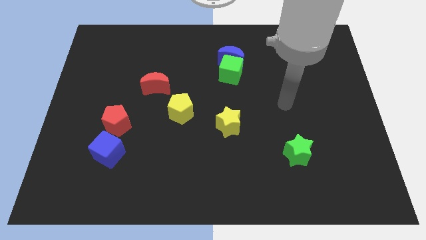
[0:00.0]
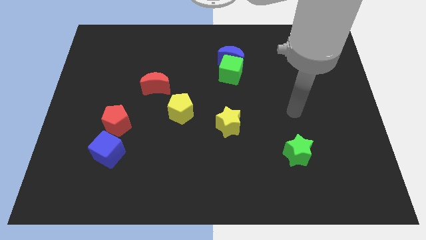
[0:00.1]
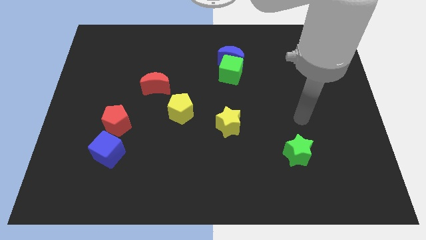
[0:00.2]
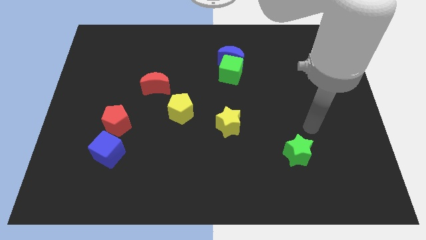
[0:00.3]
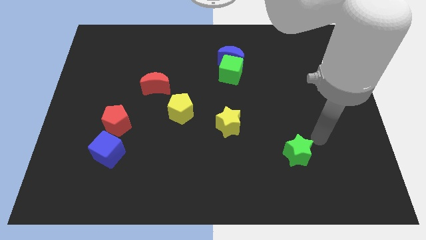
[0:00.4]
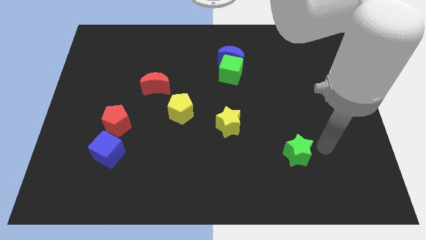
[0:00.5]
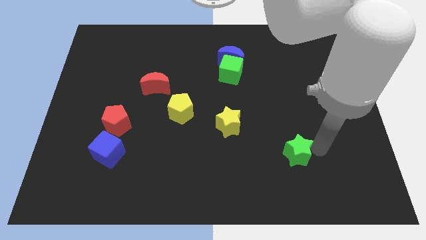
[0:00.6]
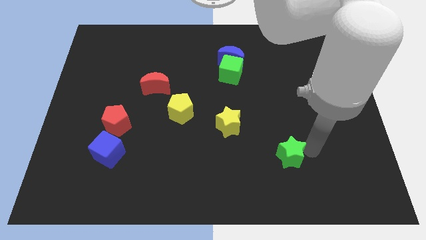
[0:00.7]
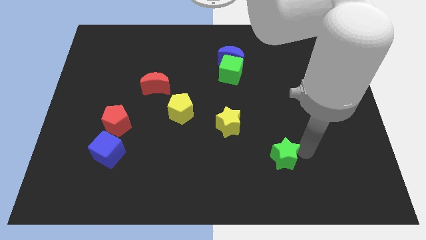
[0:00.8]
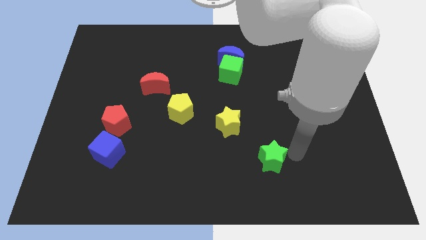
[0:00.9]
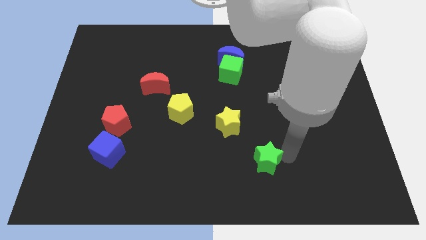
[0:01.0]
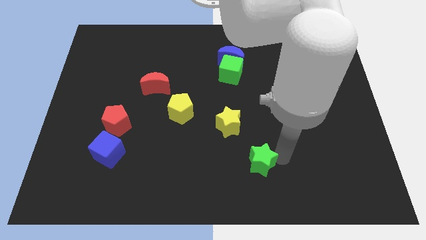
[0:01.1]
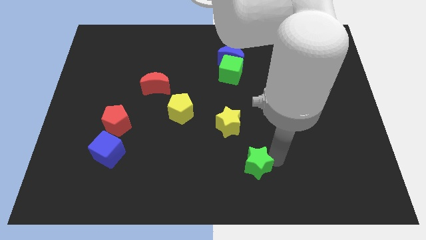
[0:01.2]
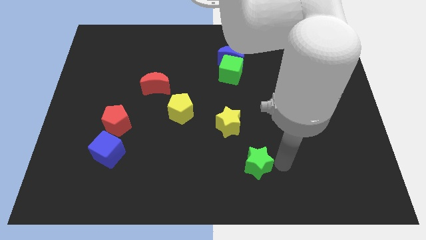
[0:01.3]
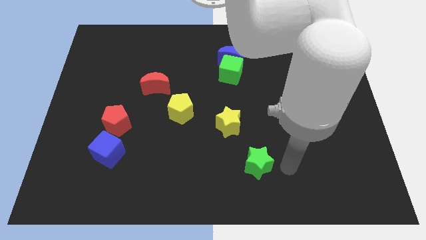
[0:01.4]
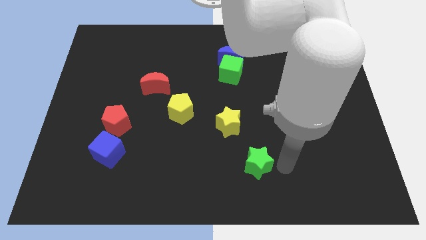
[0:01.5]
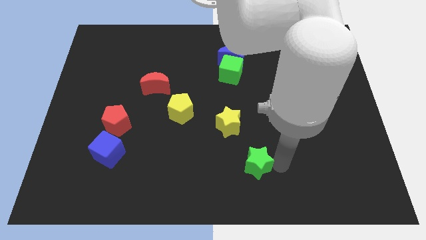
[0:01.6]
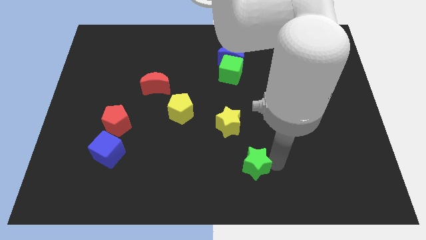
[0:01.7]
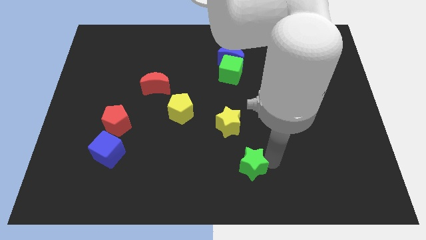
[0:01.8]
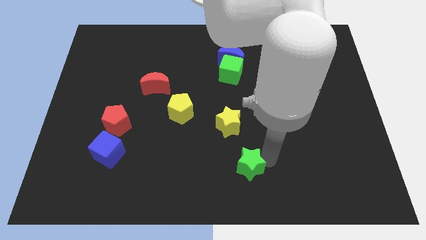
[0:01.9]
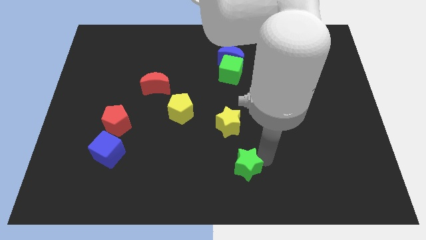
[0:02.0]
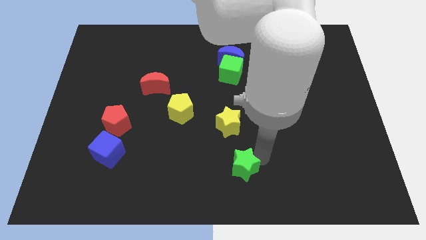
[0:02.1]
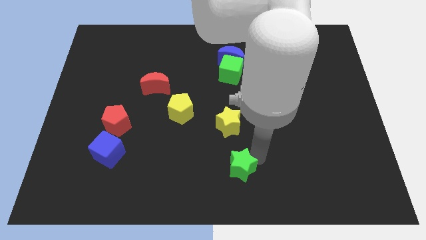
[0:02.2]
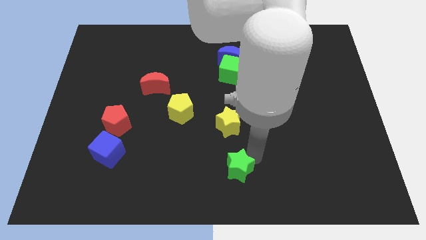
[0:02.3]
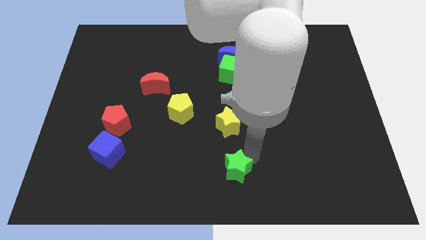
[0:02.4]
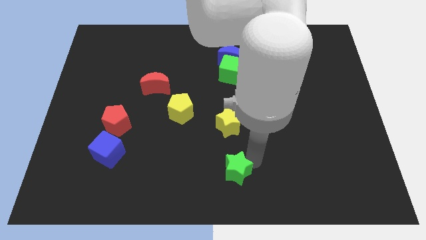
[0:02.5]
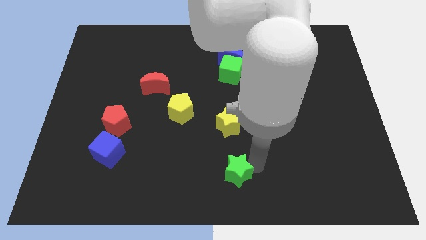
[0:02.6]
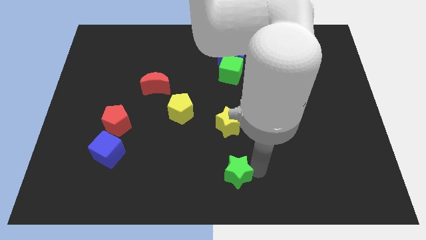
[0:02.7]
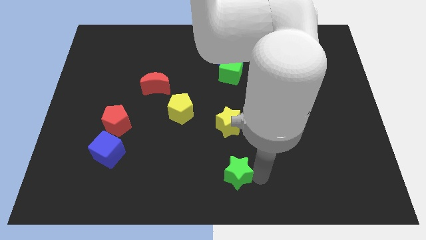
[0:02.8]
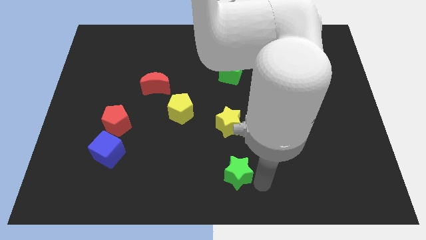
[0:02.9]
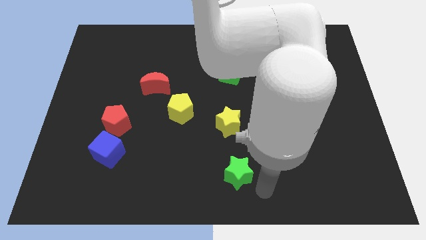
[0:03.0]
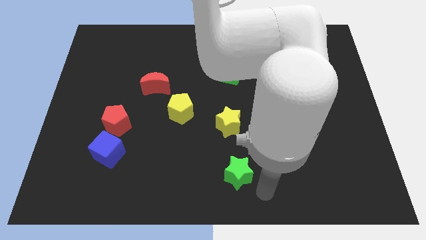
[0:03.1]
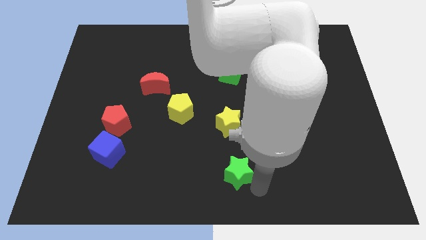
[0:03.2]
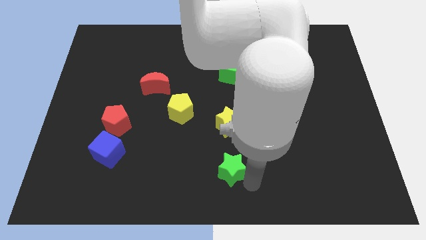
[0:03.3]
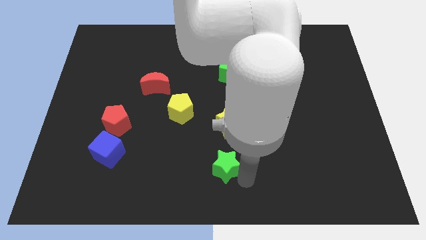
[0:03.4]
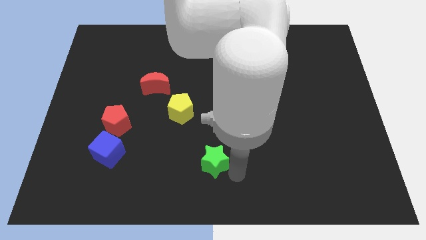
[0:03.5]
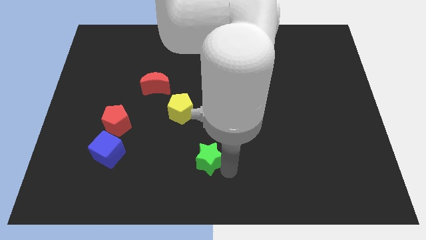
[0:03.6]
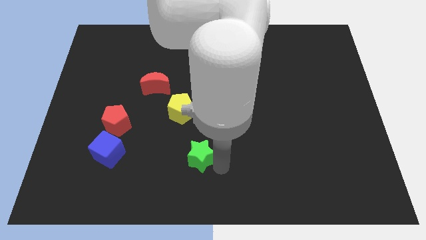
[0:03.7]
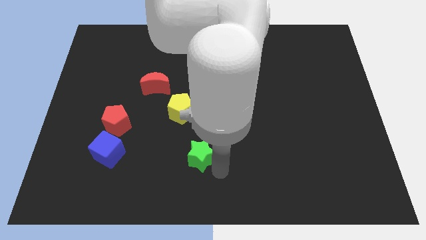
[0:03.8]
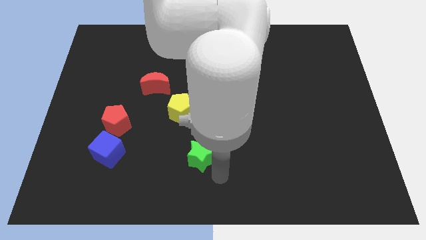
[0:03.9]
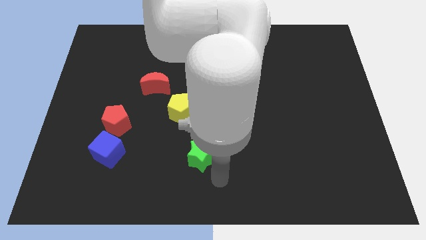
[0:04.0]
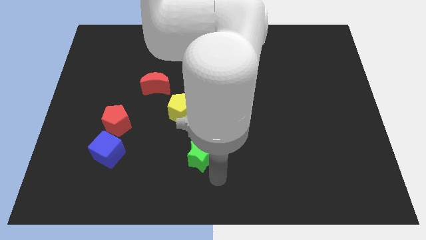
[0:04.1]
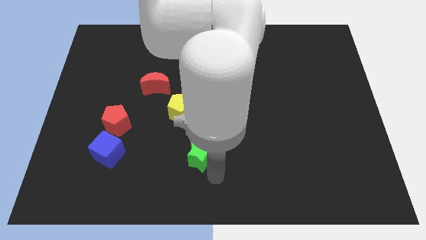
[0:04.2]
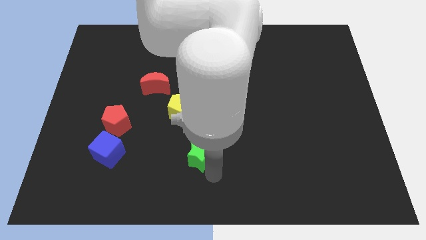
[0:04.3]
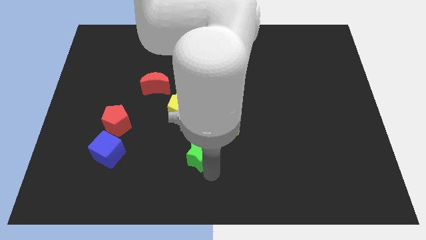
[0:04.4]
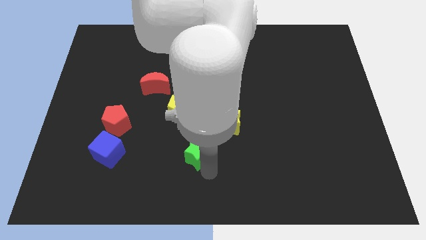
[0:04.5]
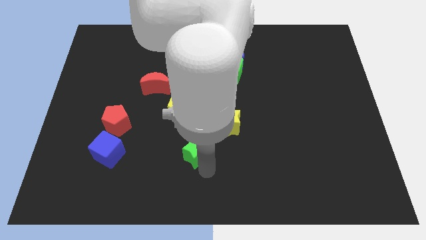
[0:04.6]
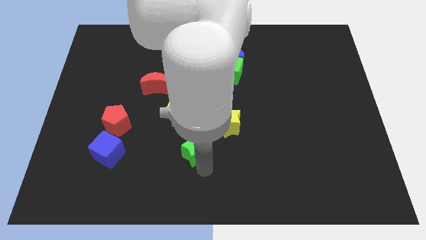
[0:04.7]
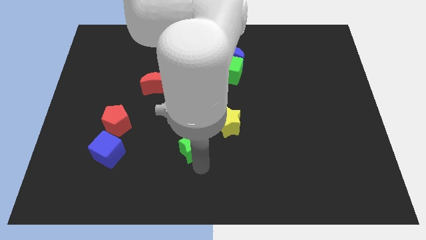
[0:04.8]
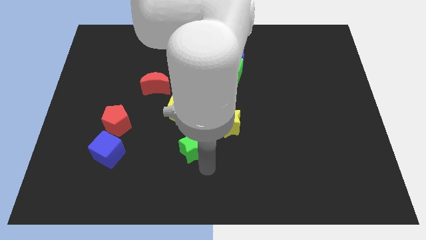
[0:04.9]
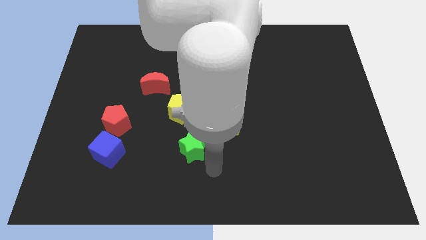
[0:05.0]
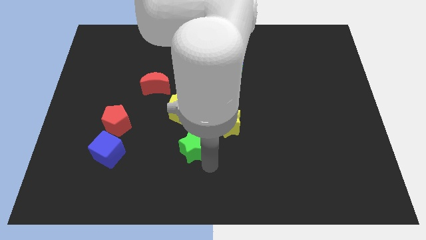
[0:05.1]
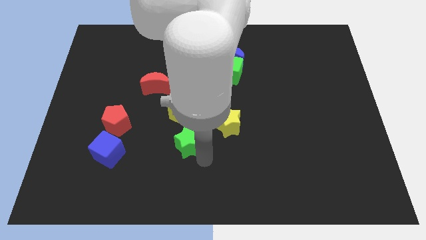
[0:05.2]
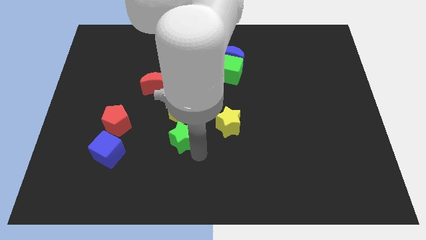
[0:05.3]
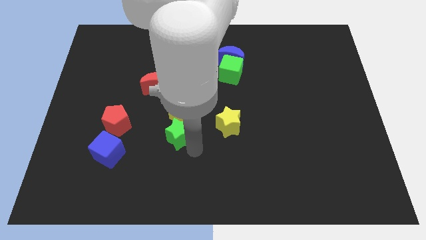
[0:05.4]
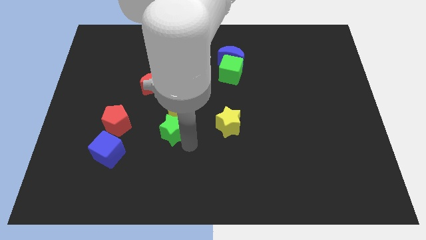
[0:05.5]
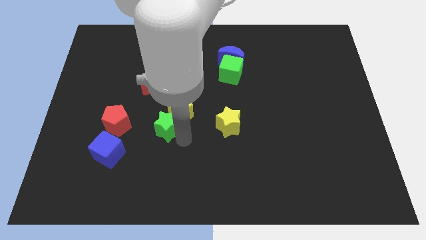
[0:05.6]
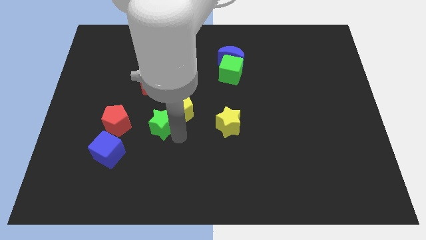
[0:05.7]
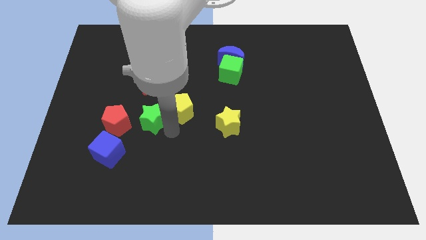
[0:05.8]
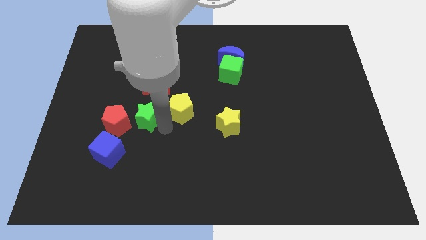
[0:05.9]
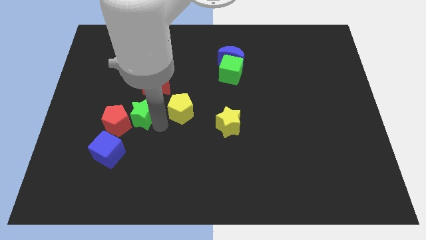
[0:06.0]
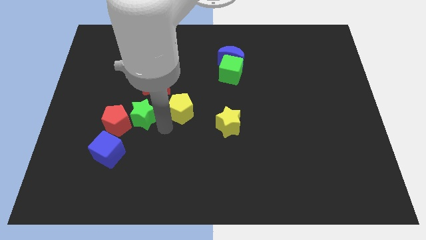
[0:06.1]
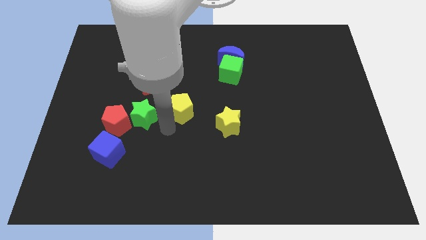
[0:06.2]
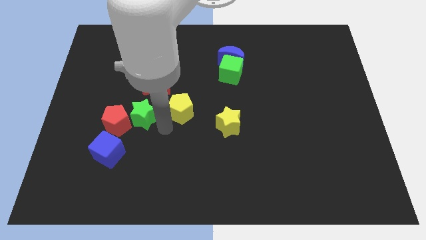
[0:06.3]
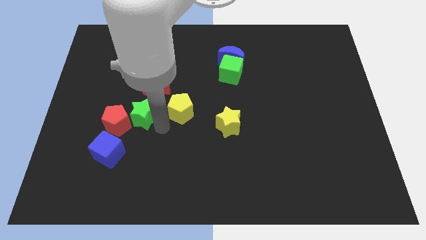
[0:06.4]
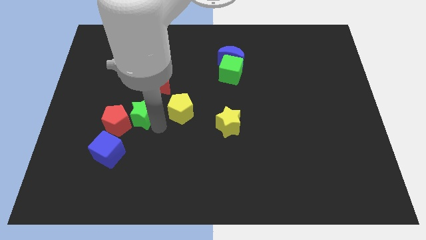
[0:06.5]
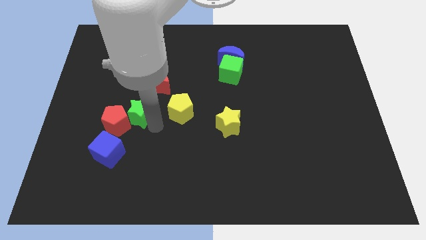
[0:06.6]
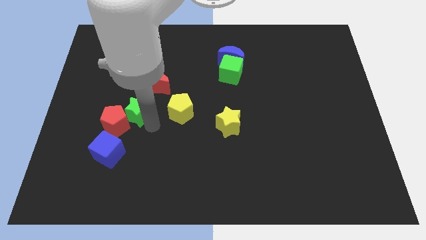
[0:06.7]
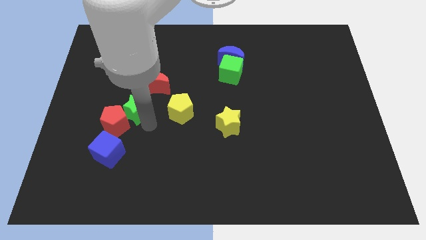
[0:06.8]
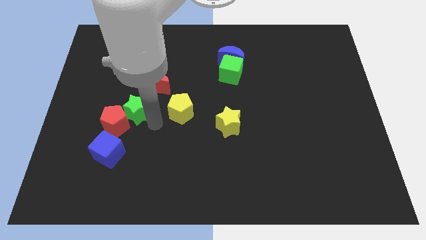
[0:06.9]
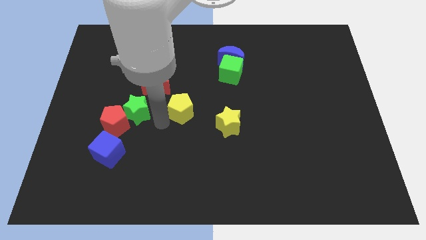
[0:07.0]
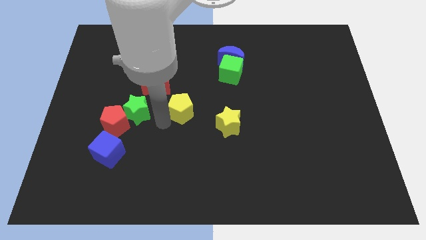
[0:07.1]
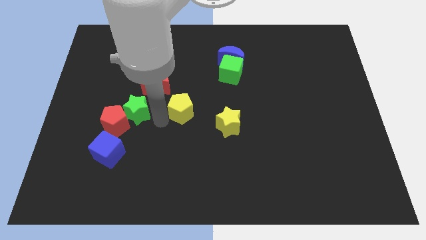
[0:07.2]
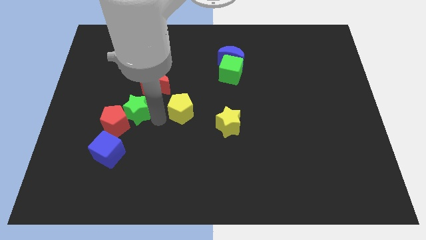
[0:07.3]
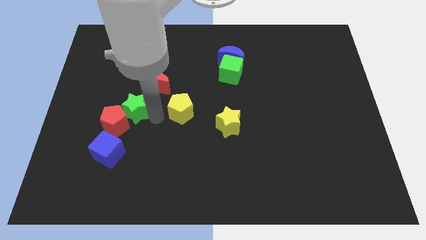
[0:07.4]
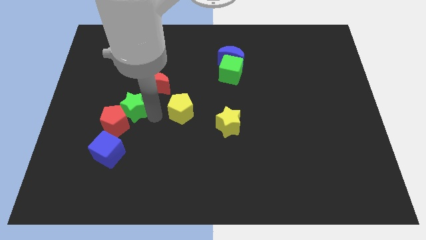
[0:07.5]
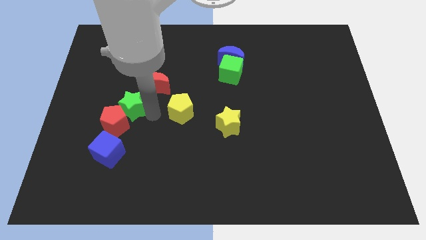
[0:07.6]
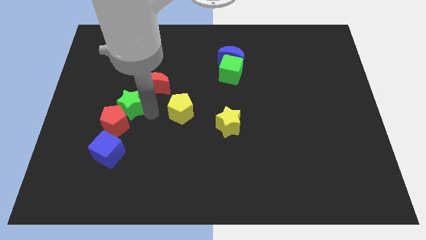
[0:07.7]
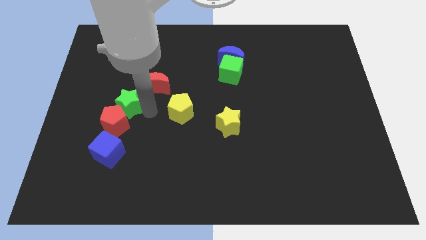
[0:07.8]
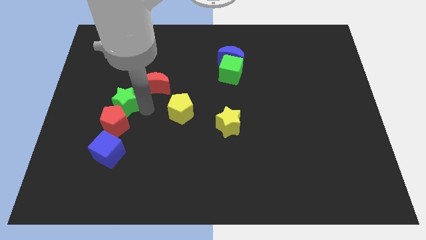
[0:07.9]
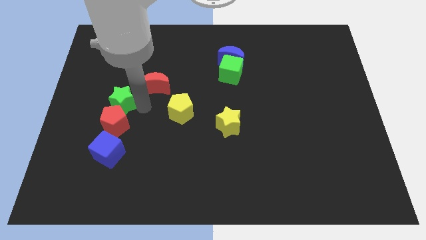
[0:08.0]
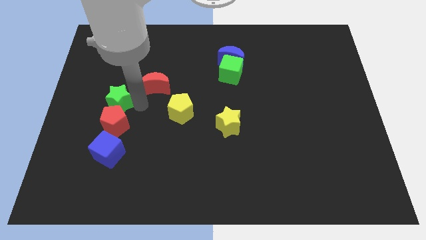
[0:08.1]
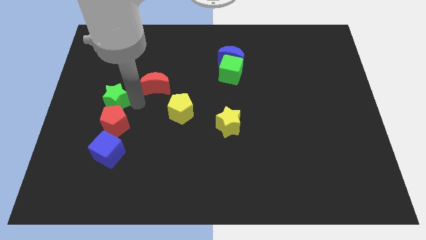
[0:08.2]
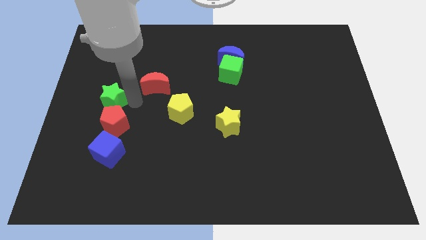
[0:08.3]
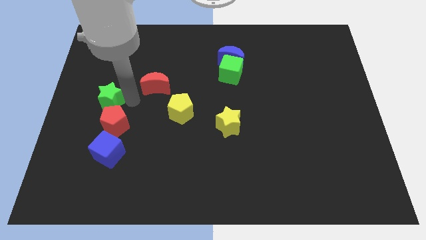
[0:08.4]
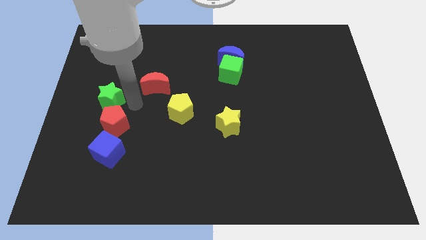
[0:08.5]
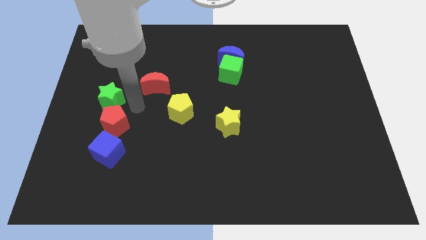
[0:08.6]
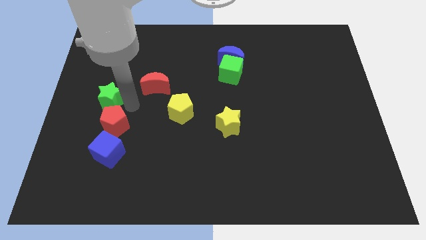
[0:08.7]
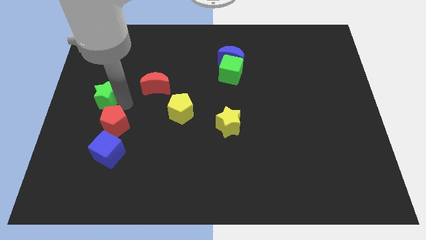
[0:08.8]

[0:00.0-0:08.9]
move the green star to the center left
